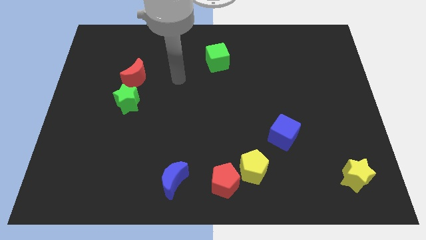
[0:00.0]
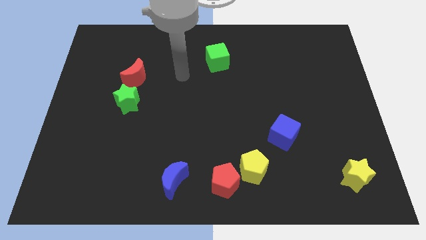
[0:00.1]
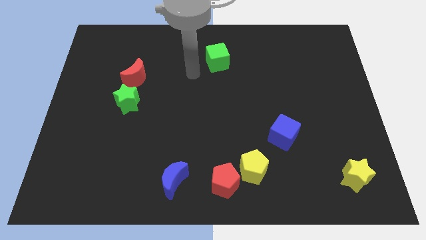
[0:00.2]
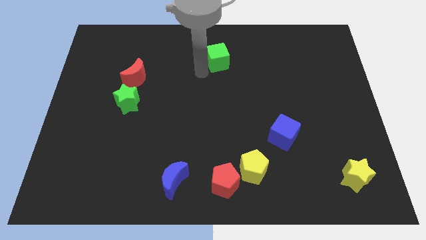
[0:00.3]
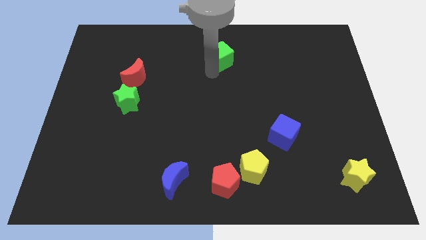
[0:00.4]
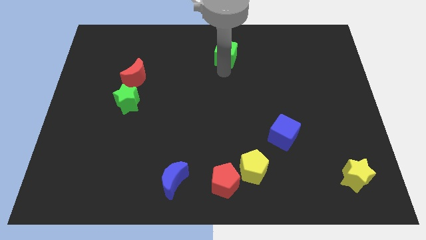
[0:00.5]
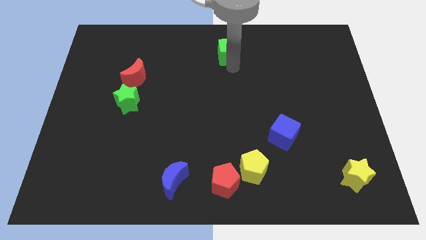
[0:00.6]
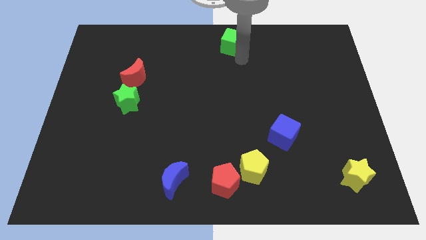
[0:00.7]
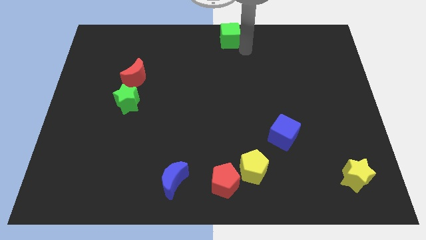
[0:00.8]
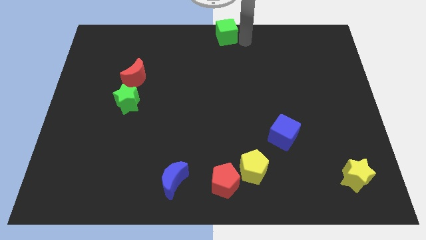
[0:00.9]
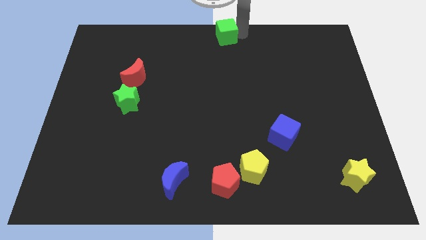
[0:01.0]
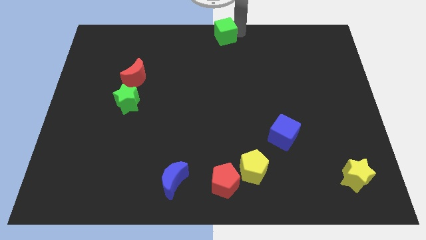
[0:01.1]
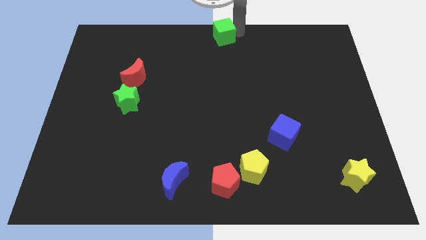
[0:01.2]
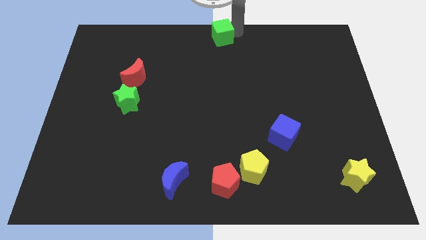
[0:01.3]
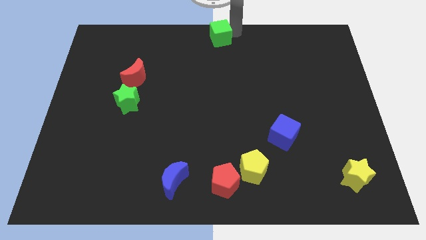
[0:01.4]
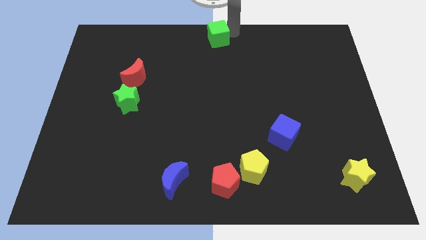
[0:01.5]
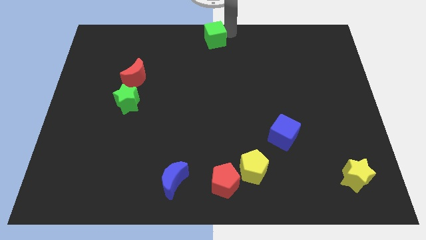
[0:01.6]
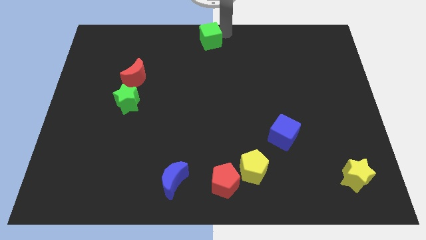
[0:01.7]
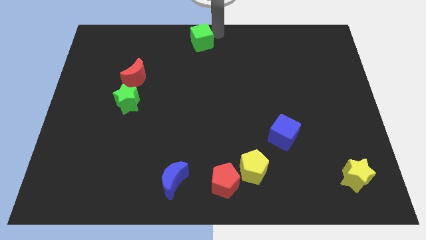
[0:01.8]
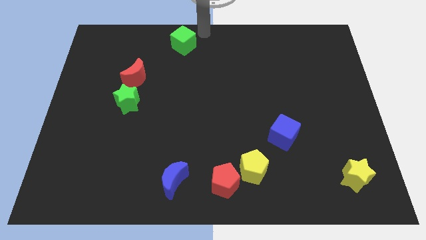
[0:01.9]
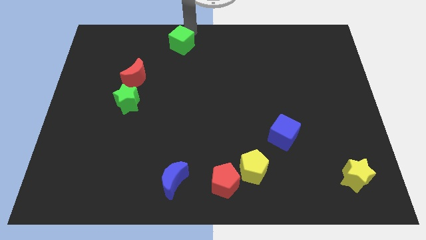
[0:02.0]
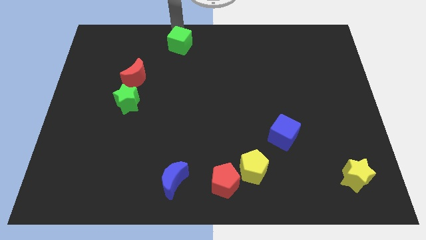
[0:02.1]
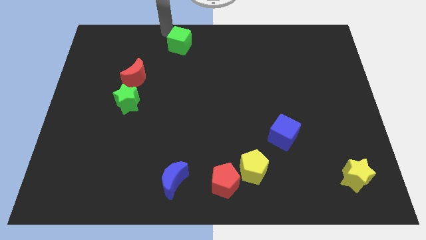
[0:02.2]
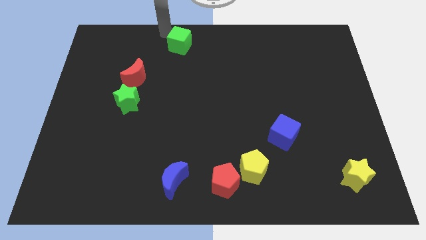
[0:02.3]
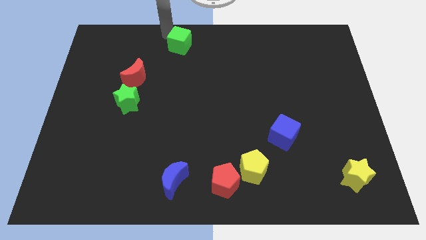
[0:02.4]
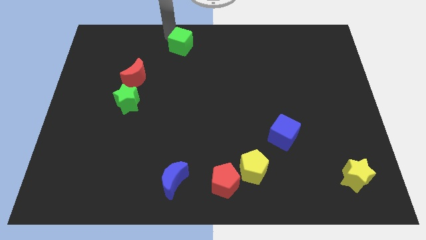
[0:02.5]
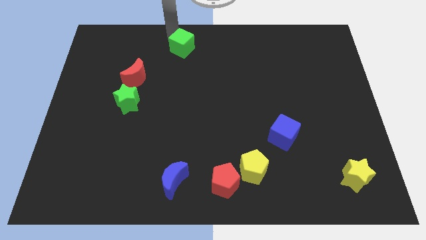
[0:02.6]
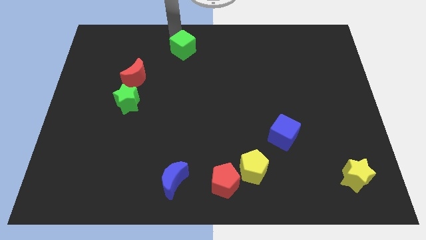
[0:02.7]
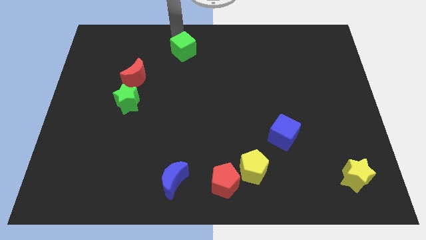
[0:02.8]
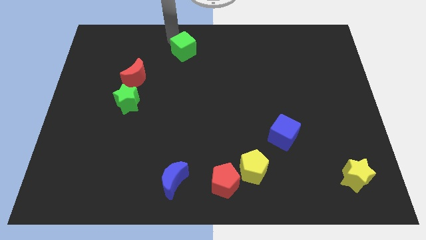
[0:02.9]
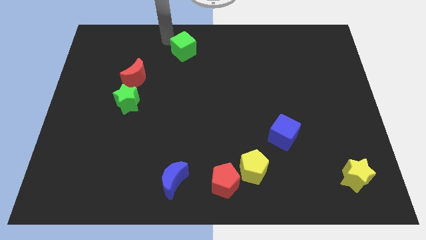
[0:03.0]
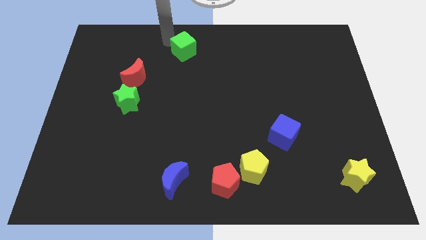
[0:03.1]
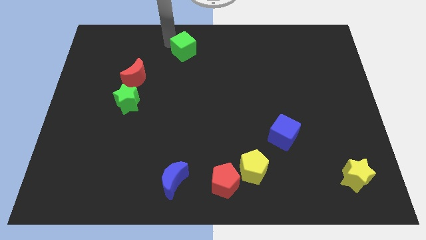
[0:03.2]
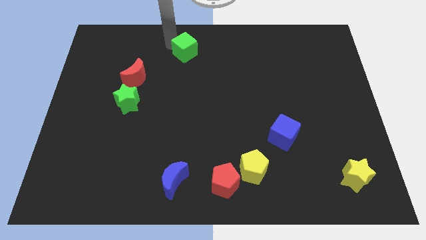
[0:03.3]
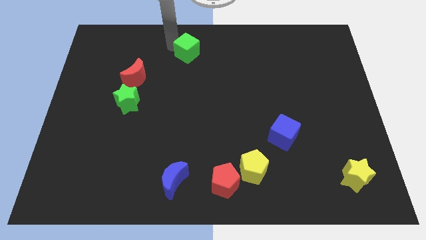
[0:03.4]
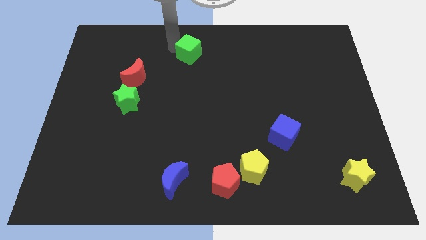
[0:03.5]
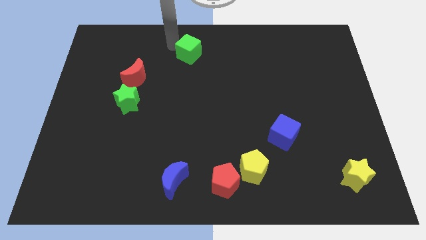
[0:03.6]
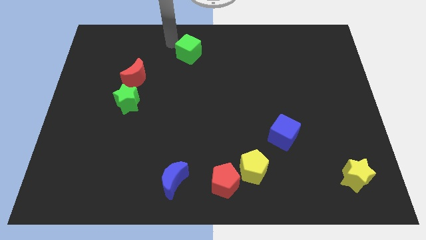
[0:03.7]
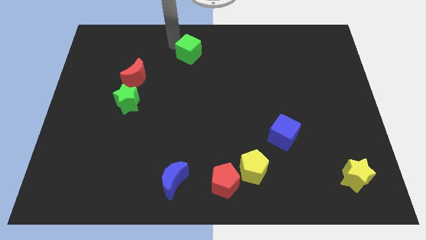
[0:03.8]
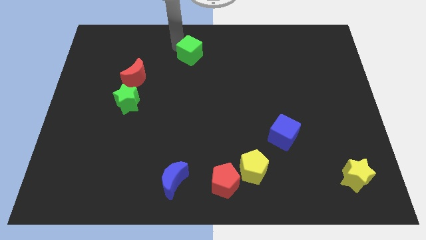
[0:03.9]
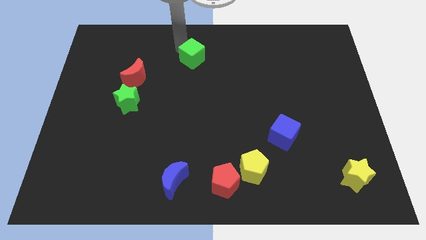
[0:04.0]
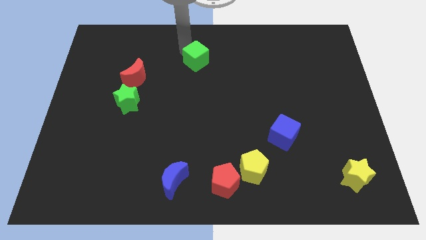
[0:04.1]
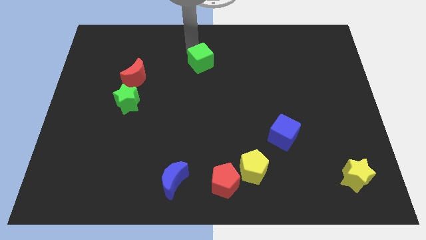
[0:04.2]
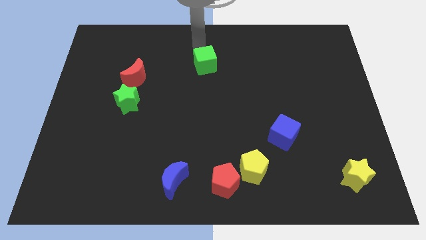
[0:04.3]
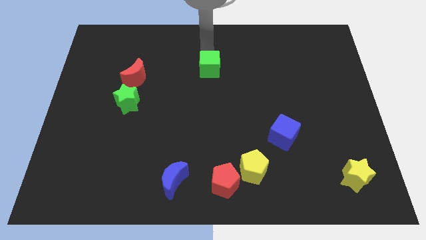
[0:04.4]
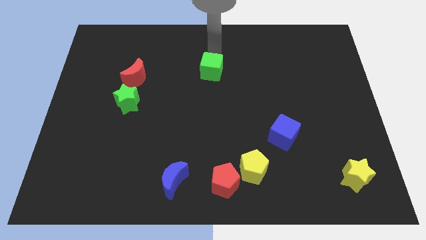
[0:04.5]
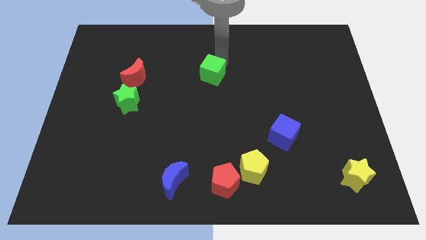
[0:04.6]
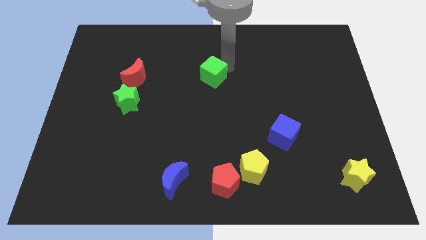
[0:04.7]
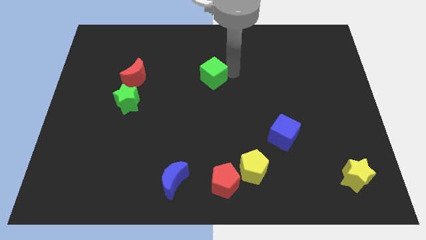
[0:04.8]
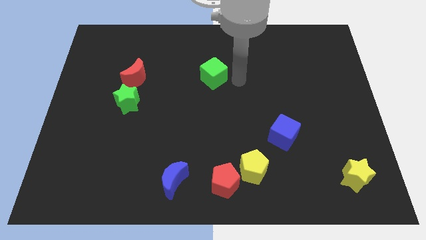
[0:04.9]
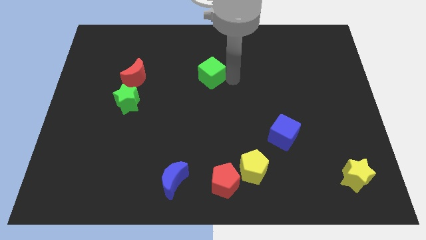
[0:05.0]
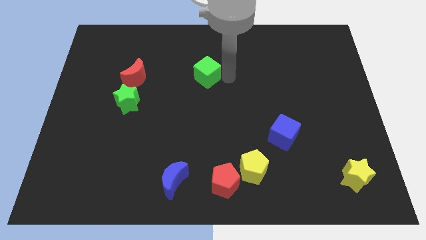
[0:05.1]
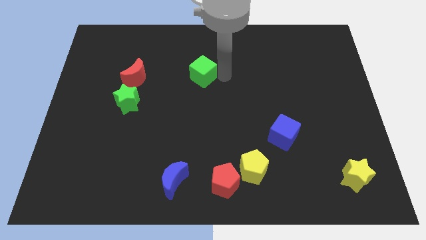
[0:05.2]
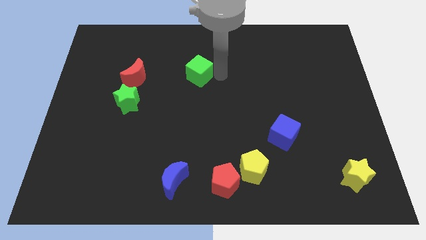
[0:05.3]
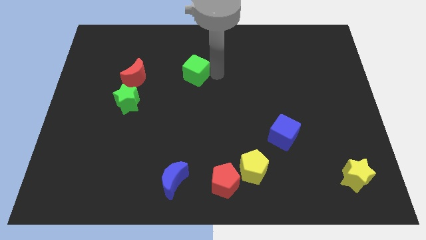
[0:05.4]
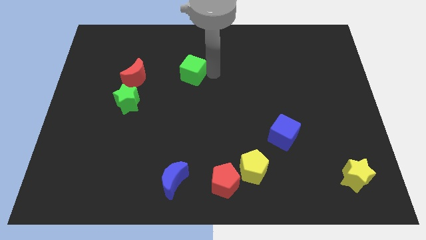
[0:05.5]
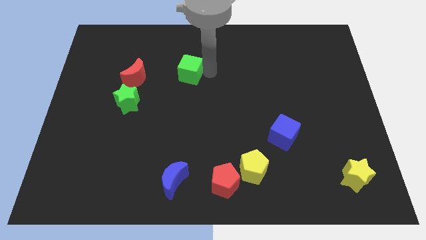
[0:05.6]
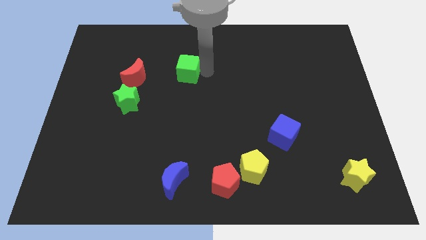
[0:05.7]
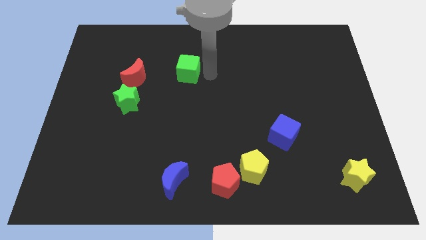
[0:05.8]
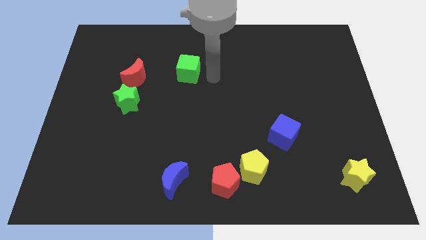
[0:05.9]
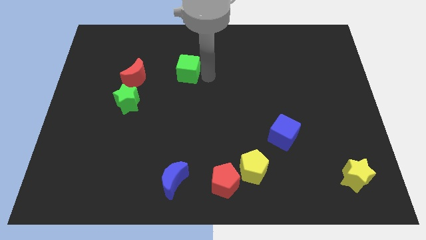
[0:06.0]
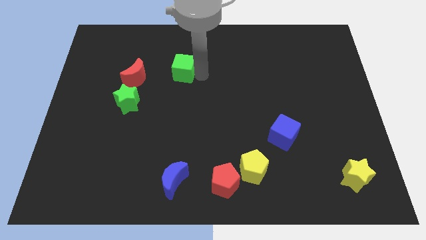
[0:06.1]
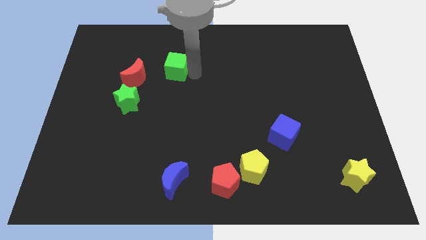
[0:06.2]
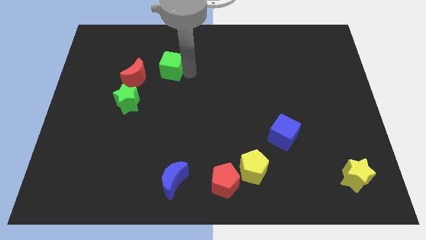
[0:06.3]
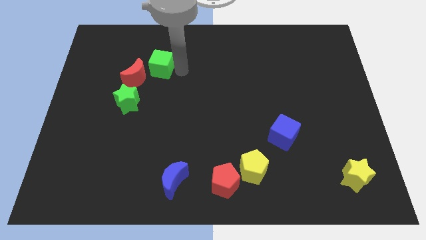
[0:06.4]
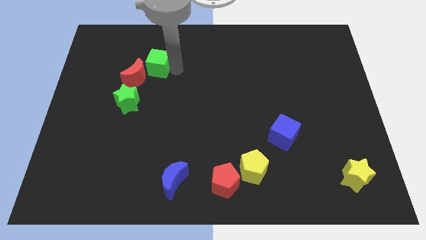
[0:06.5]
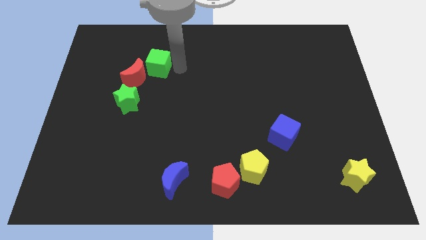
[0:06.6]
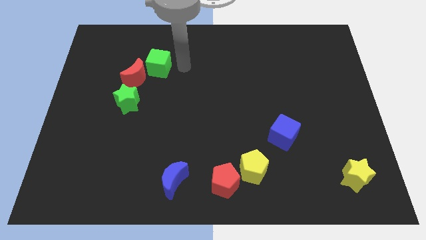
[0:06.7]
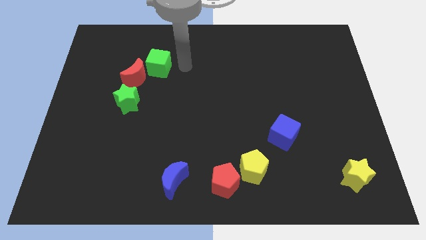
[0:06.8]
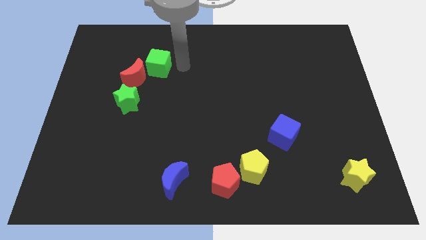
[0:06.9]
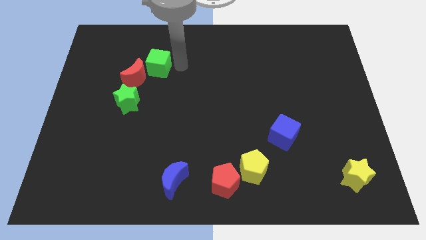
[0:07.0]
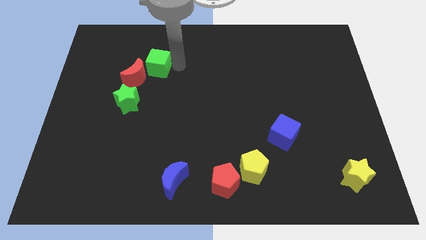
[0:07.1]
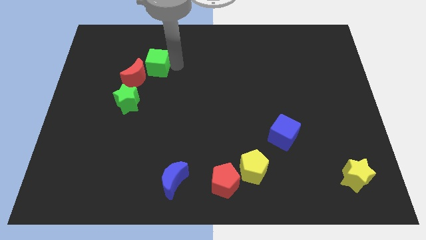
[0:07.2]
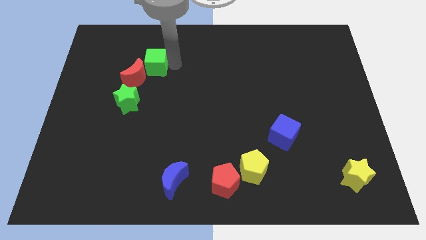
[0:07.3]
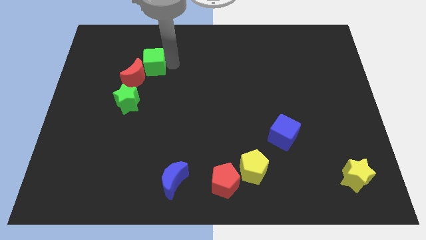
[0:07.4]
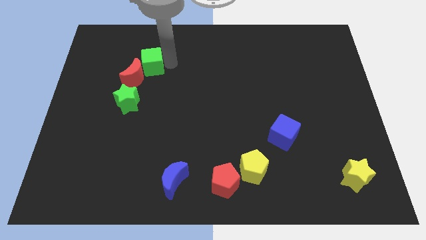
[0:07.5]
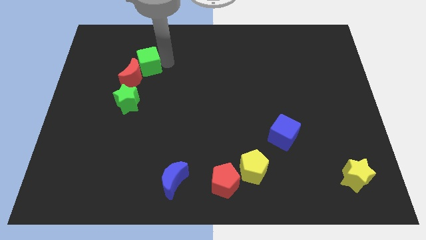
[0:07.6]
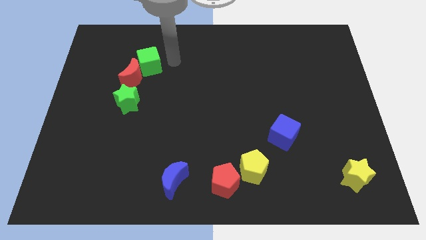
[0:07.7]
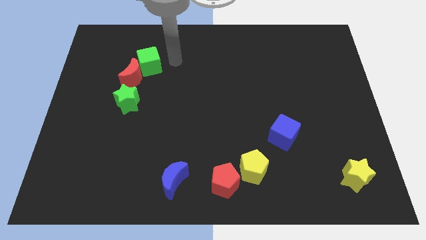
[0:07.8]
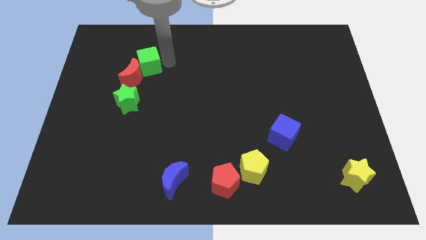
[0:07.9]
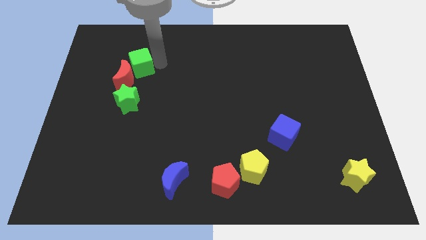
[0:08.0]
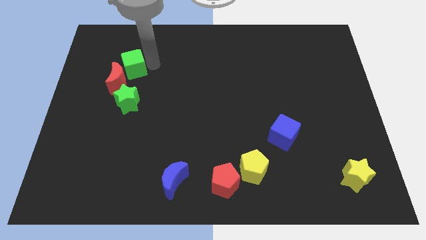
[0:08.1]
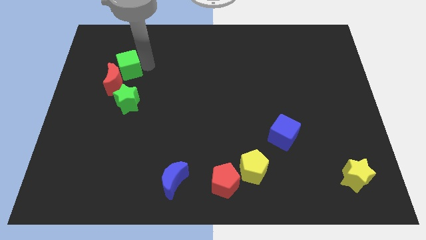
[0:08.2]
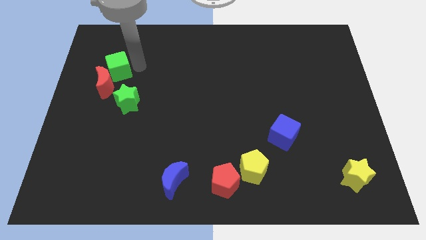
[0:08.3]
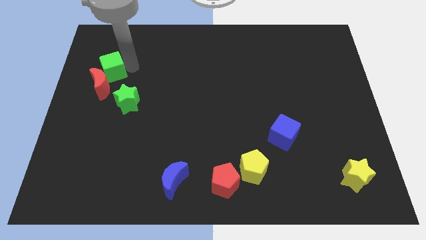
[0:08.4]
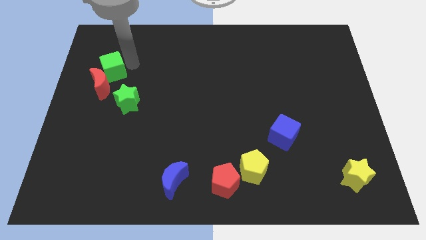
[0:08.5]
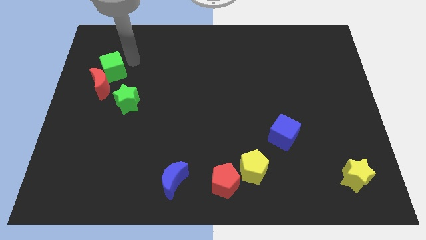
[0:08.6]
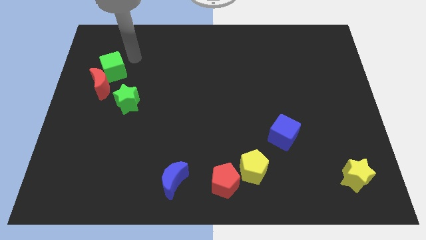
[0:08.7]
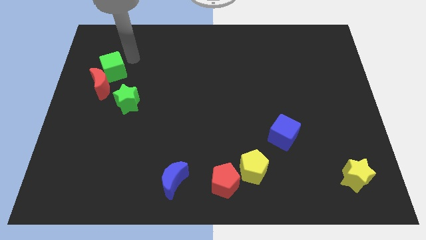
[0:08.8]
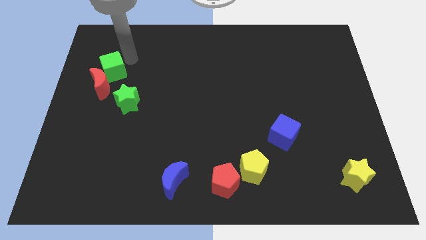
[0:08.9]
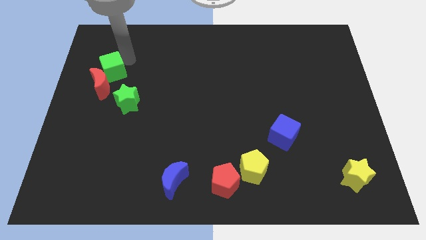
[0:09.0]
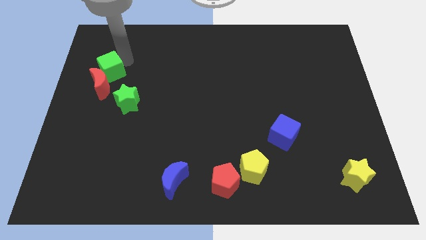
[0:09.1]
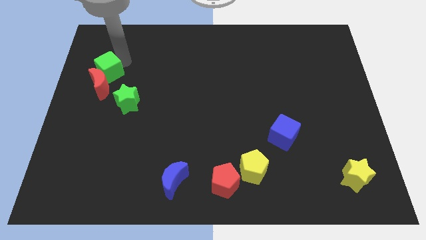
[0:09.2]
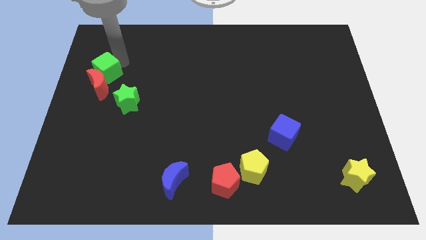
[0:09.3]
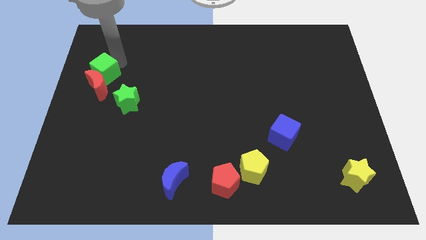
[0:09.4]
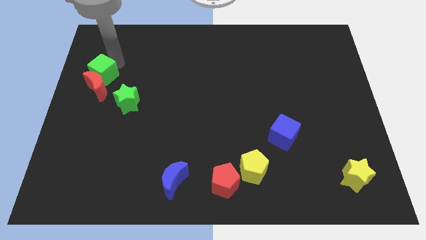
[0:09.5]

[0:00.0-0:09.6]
move the green cube to the left side
